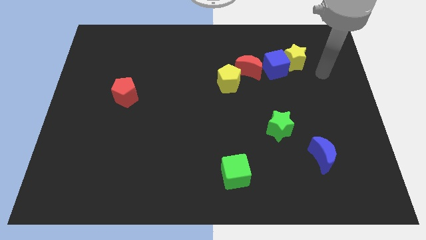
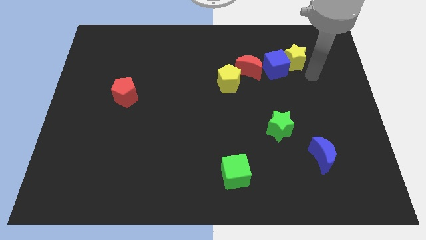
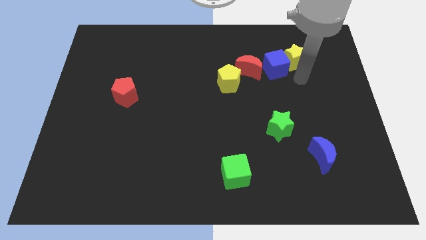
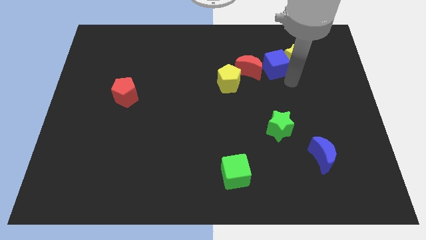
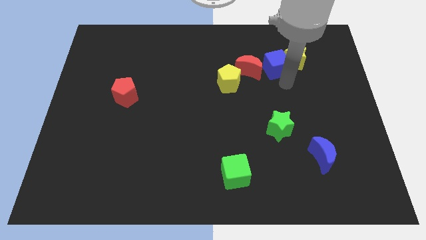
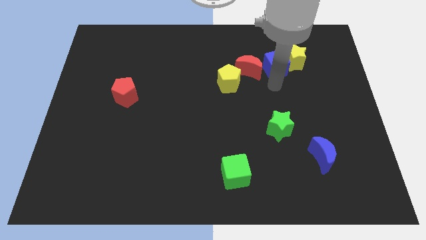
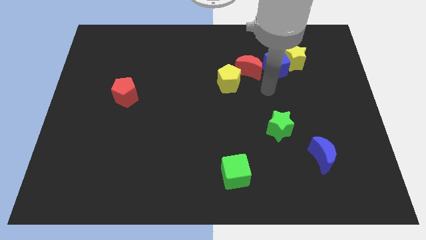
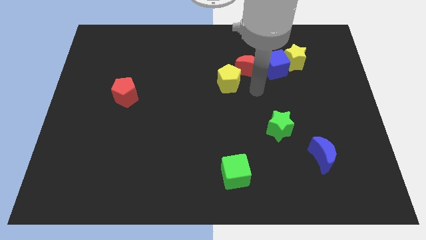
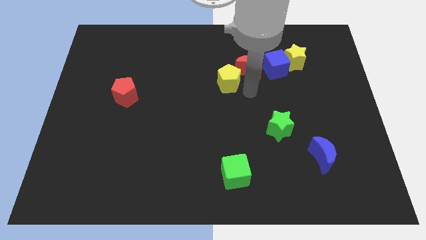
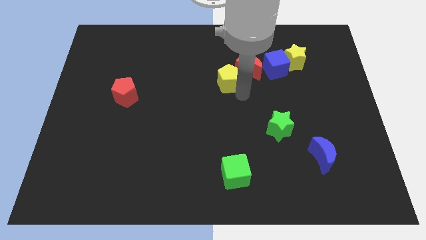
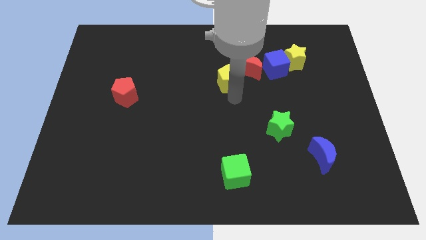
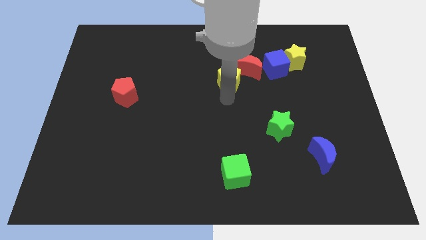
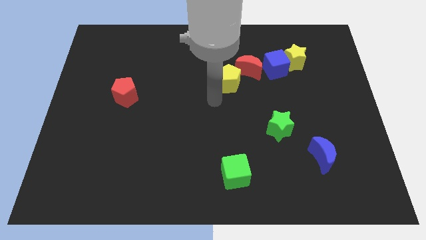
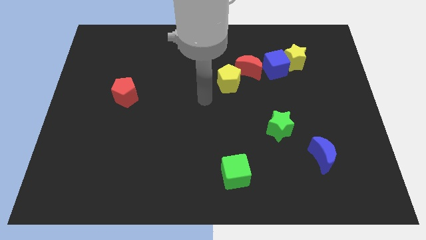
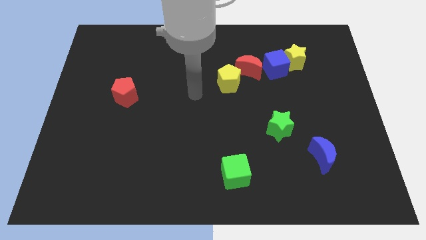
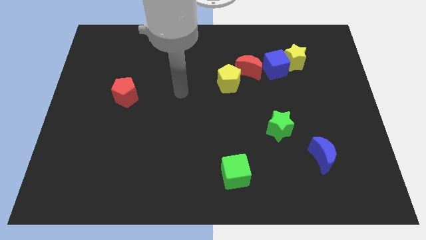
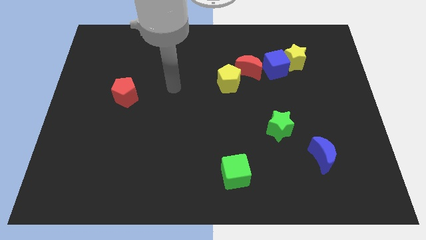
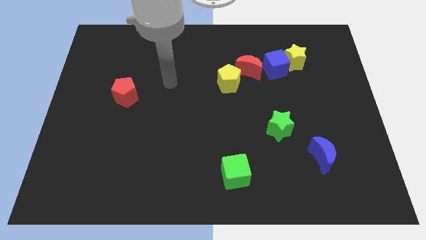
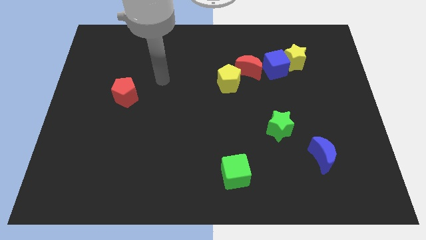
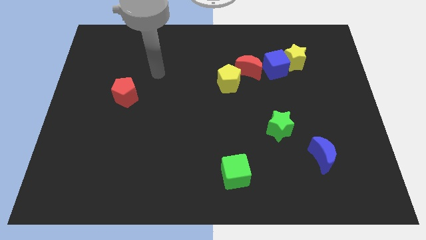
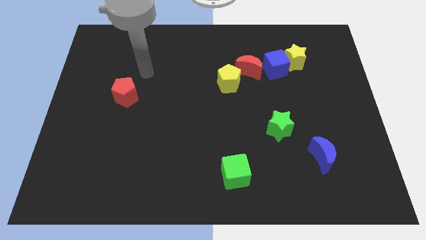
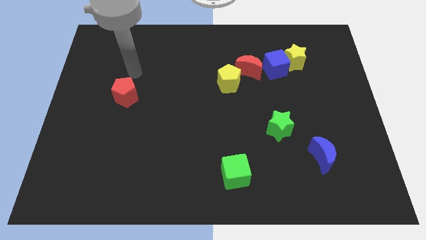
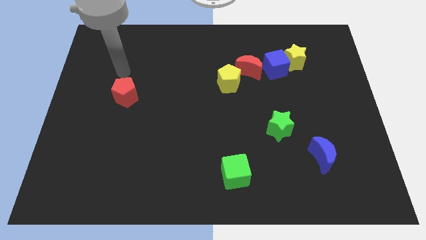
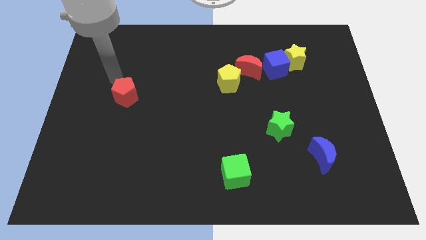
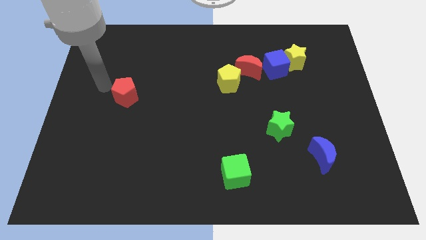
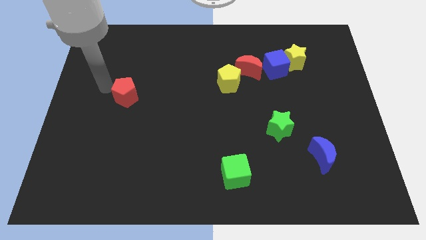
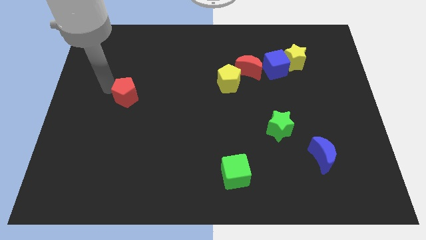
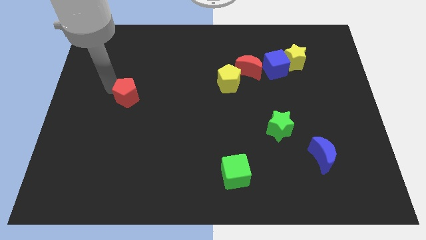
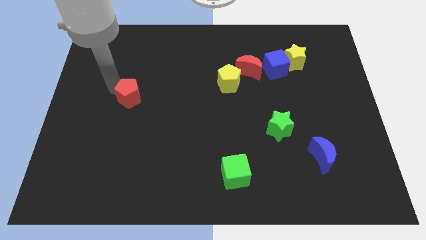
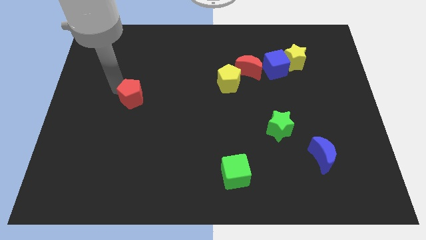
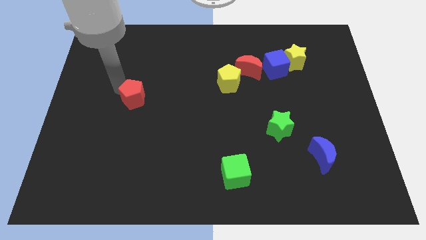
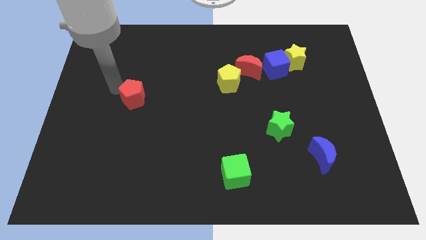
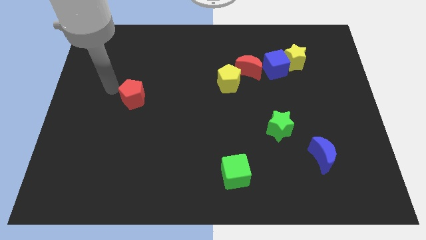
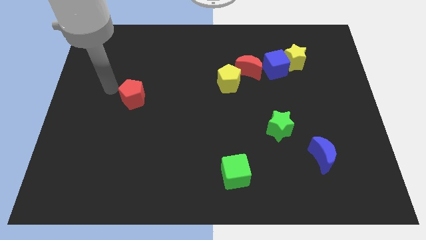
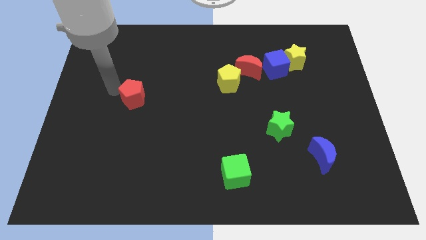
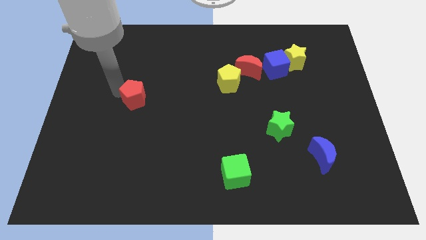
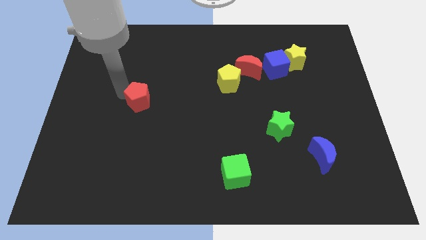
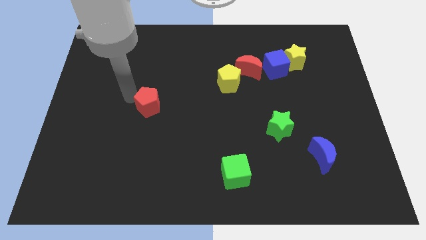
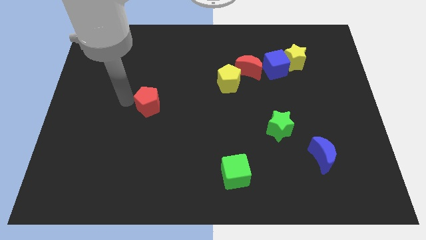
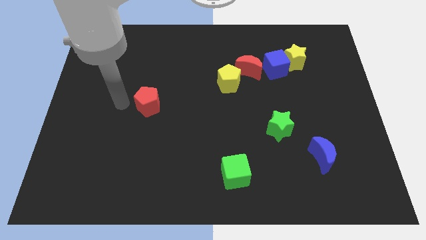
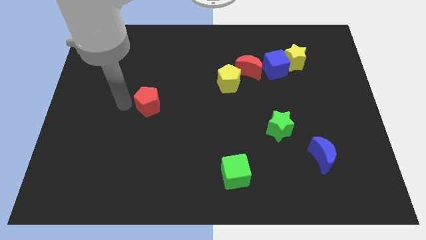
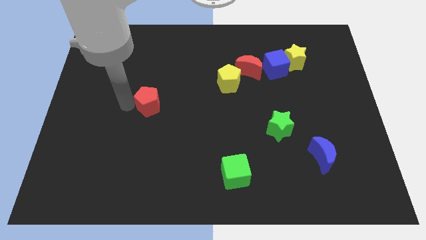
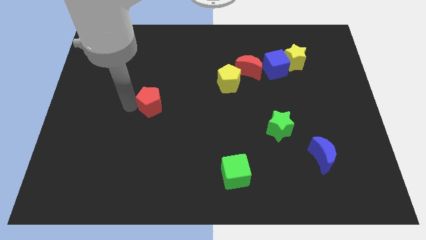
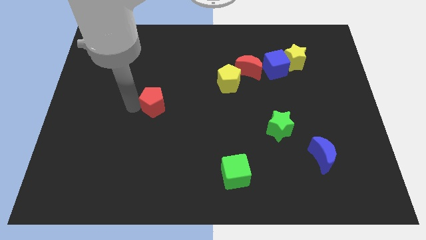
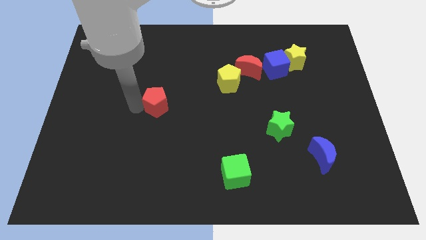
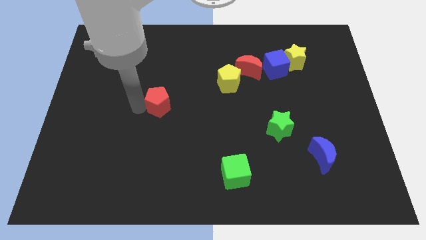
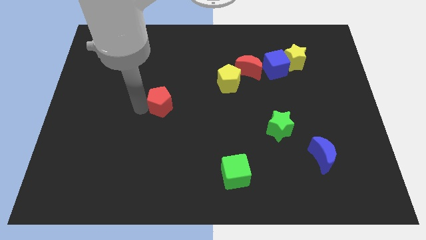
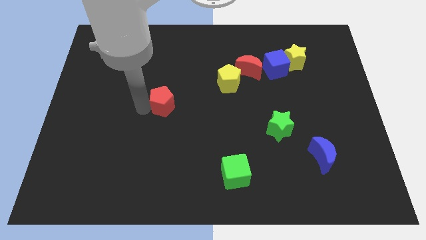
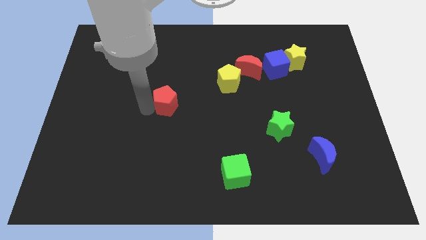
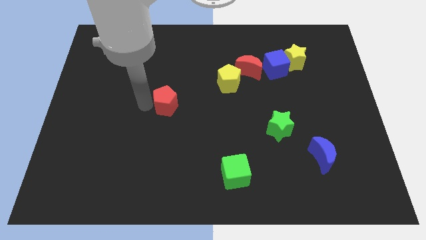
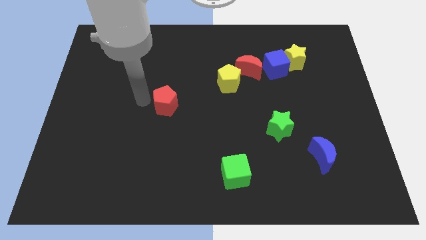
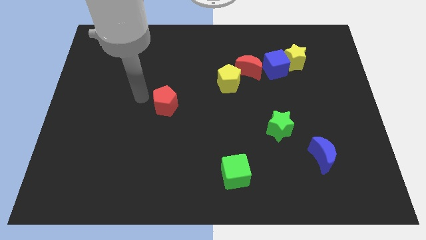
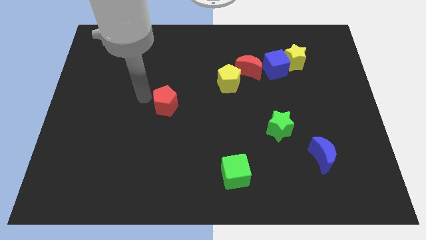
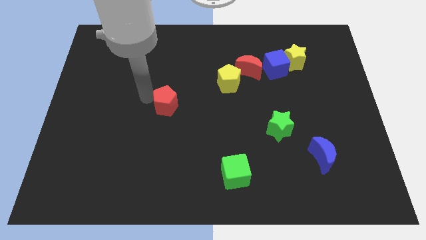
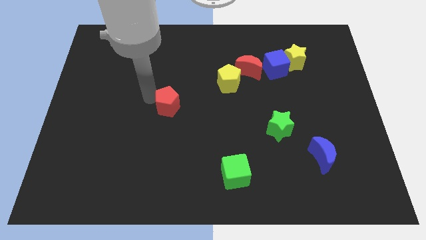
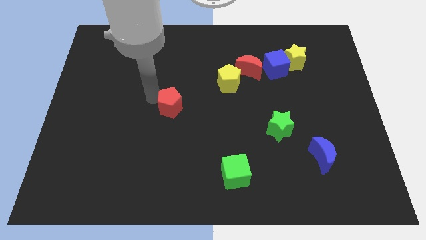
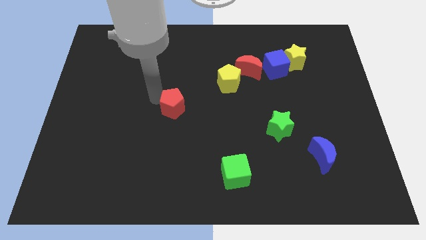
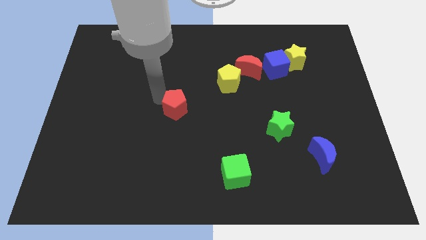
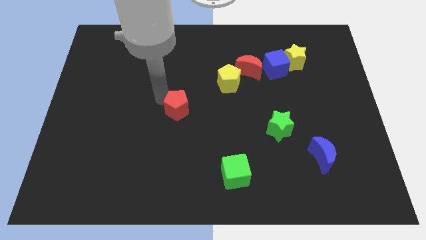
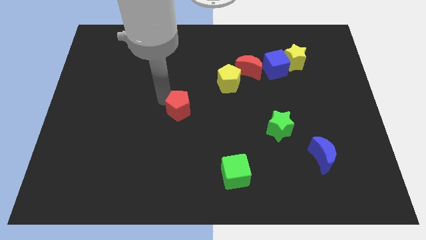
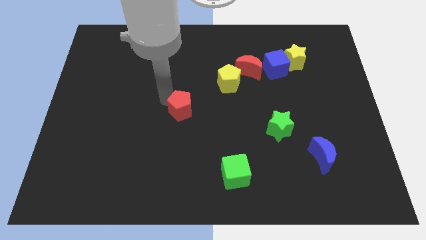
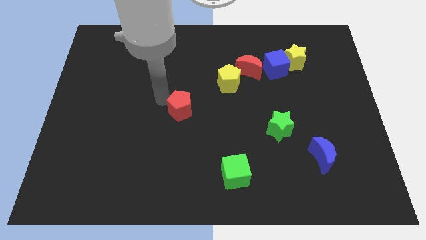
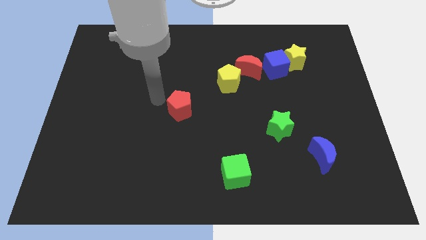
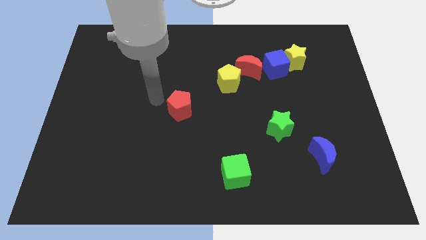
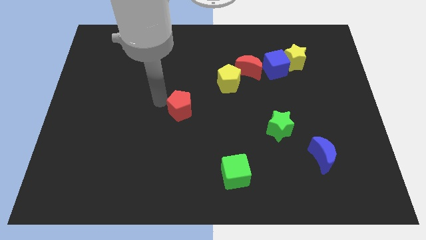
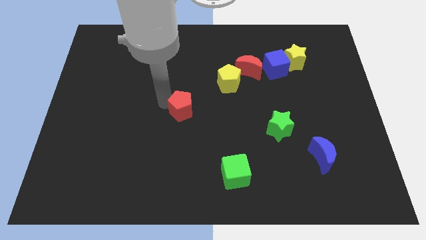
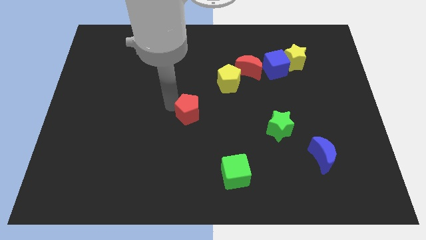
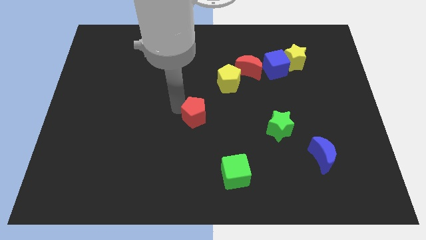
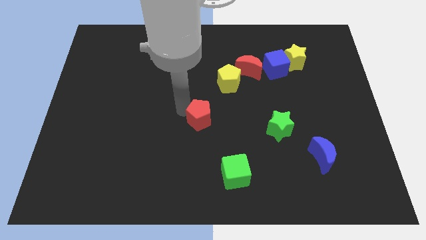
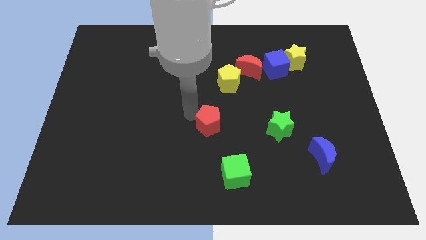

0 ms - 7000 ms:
put the red pentagon to the left side of the green star

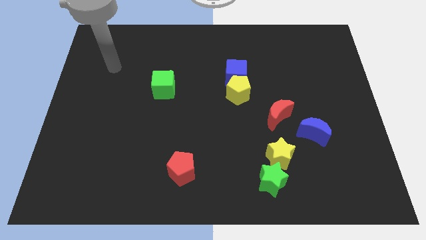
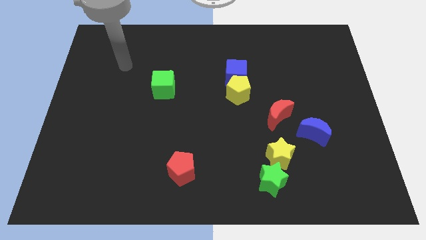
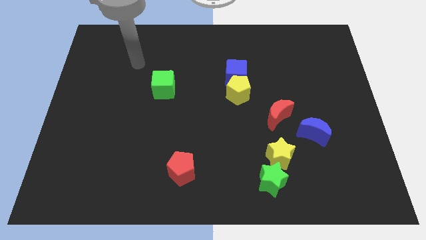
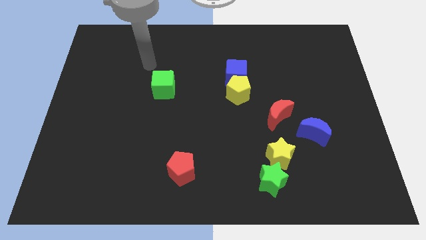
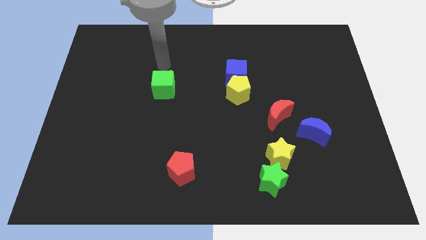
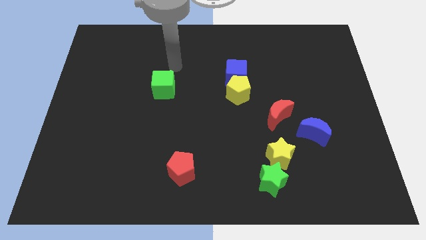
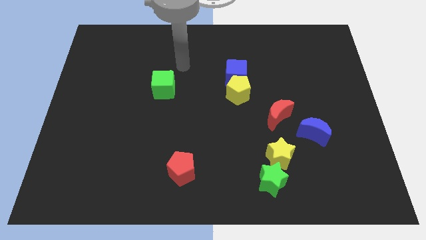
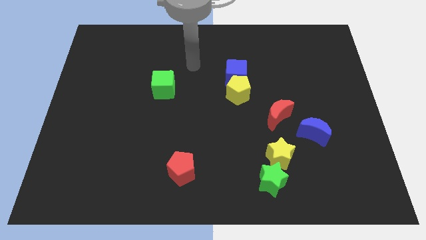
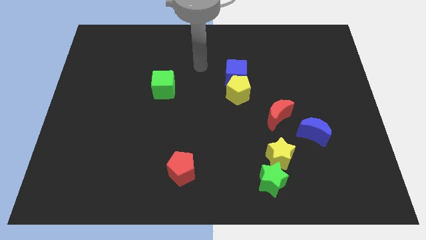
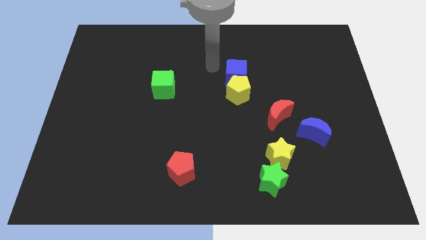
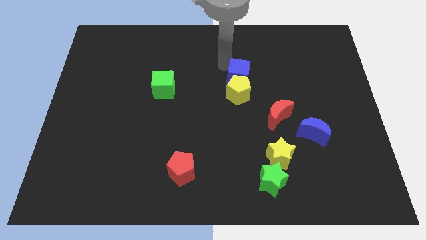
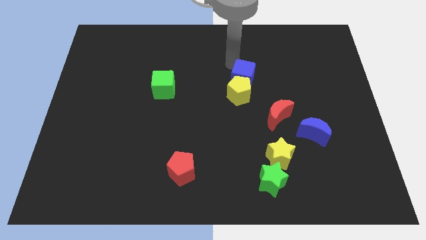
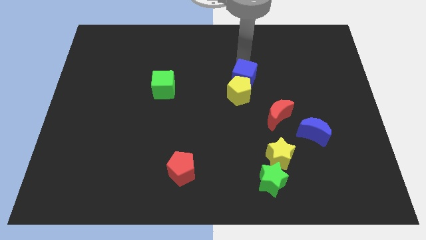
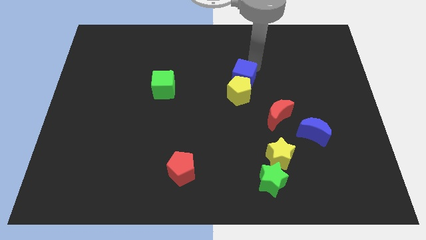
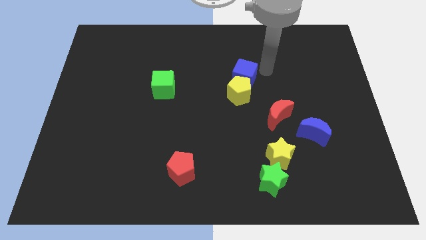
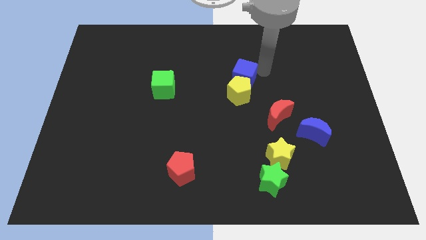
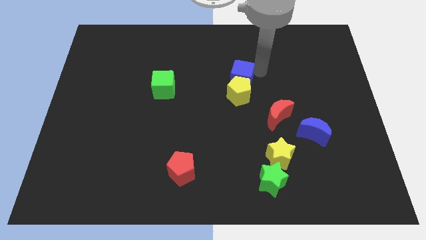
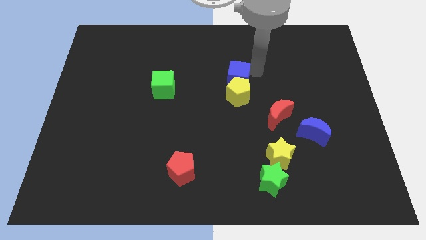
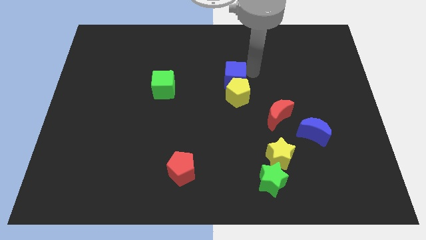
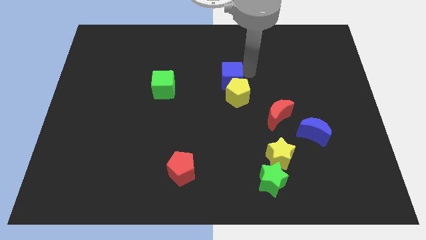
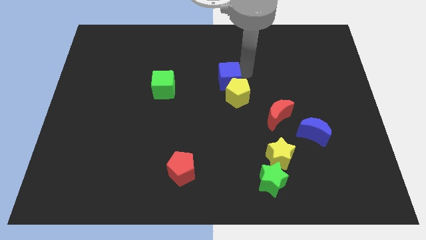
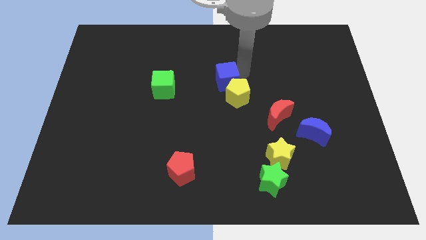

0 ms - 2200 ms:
move the blue cube right of the green cube
